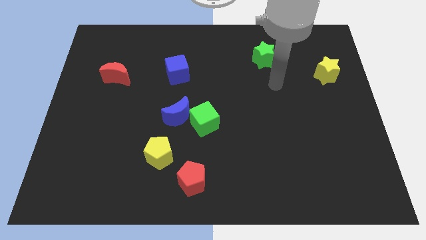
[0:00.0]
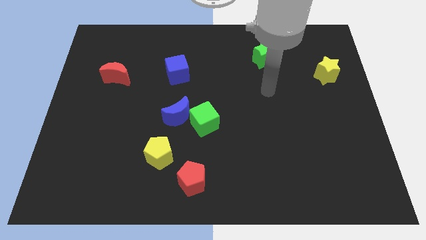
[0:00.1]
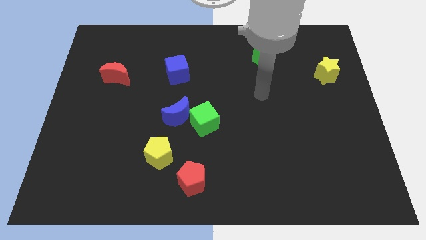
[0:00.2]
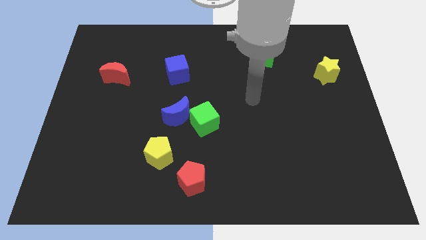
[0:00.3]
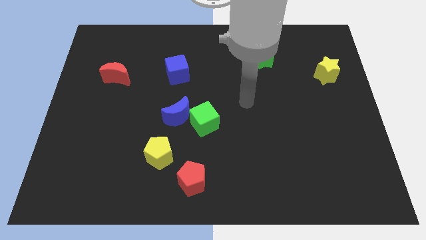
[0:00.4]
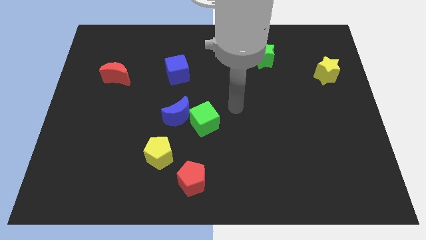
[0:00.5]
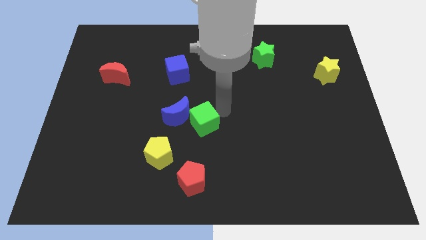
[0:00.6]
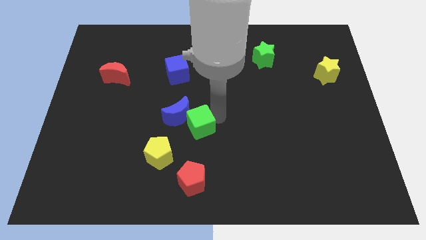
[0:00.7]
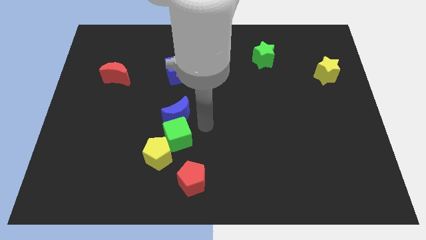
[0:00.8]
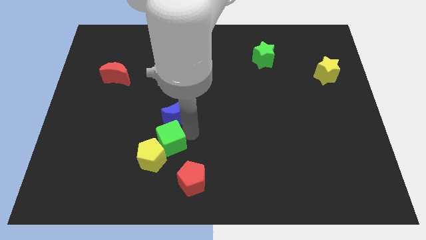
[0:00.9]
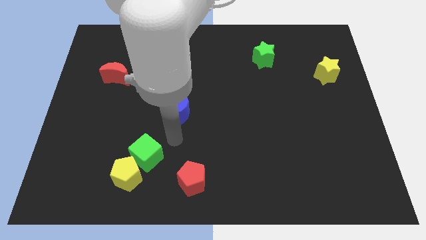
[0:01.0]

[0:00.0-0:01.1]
pull the blue moon apart from the green cube

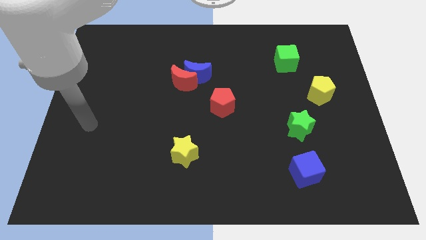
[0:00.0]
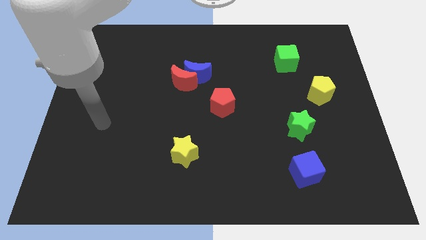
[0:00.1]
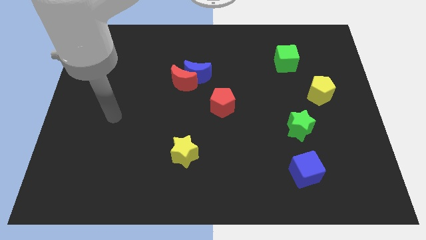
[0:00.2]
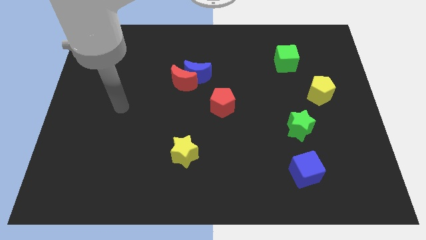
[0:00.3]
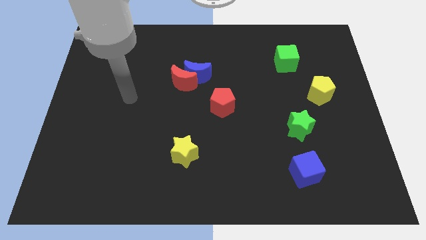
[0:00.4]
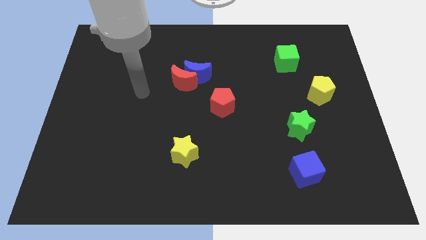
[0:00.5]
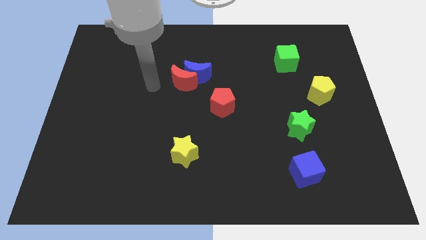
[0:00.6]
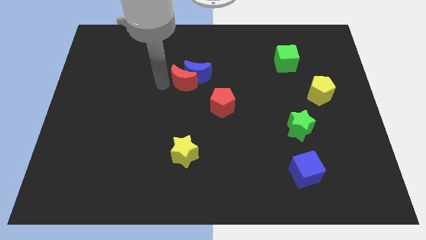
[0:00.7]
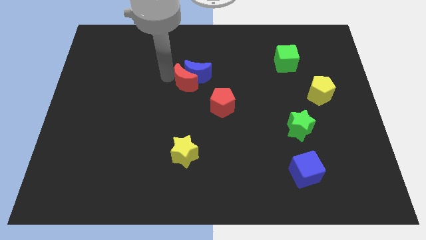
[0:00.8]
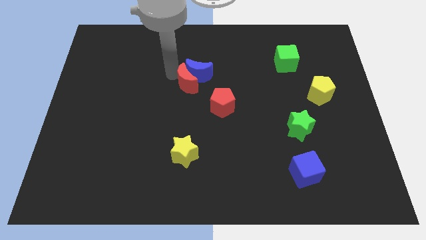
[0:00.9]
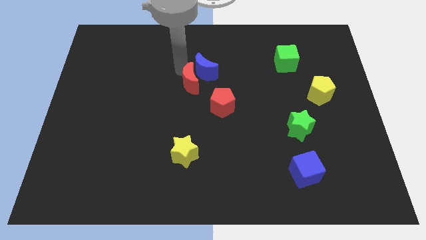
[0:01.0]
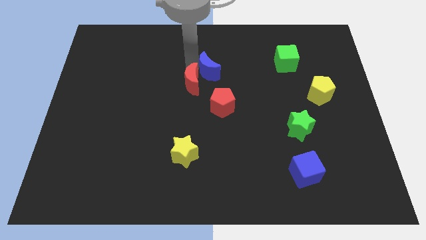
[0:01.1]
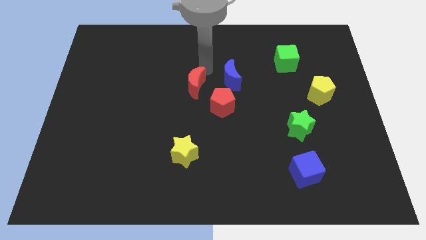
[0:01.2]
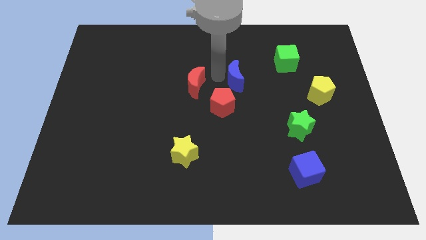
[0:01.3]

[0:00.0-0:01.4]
pull the red moon apart from the blue moon

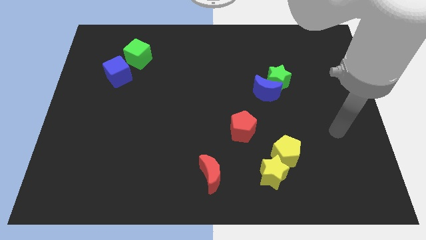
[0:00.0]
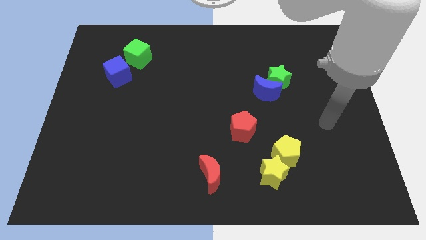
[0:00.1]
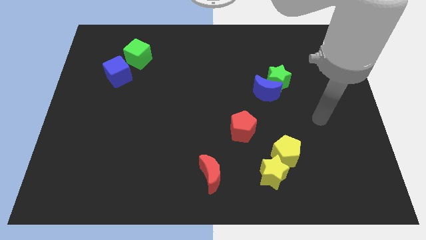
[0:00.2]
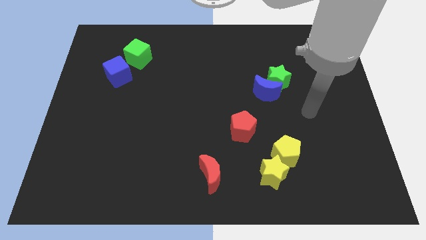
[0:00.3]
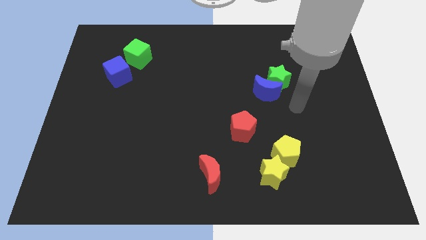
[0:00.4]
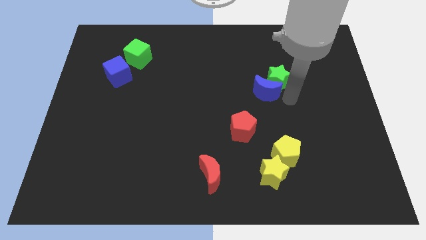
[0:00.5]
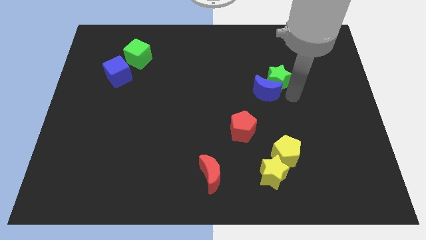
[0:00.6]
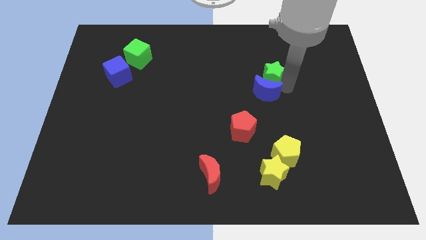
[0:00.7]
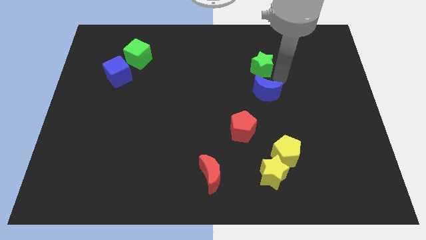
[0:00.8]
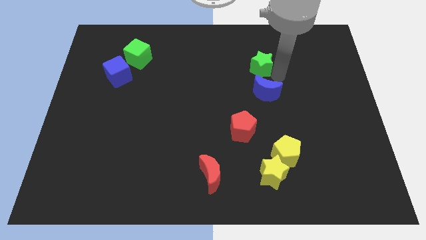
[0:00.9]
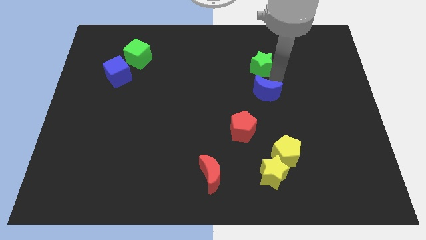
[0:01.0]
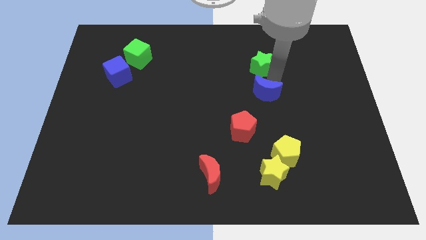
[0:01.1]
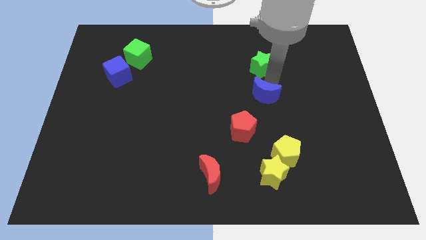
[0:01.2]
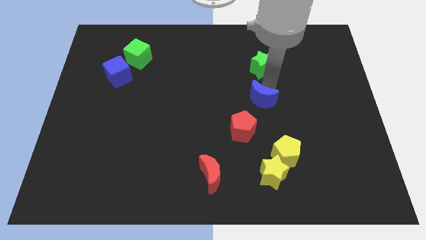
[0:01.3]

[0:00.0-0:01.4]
separate the blue moon from the green star

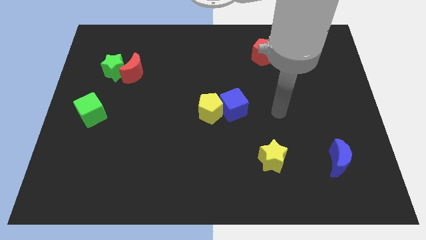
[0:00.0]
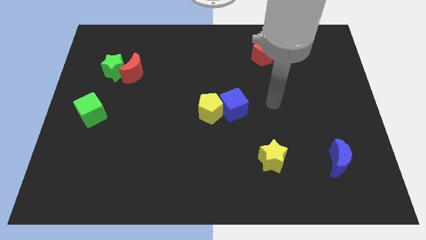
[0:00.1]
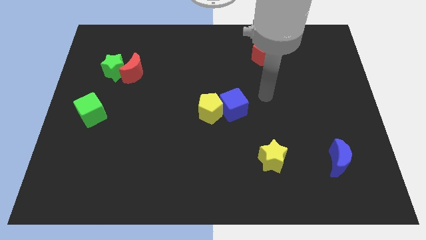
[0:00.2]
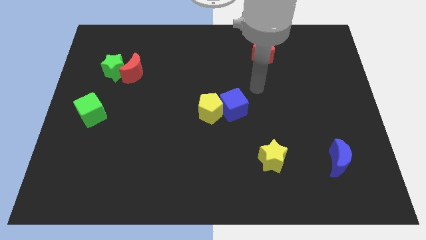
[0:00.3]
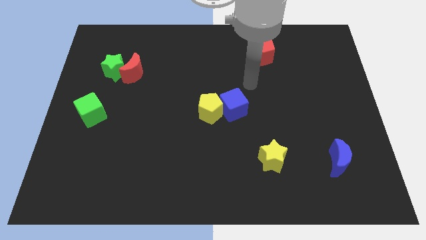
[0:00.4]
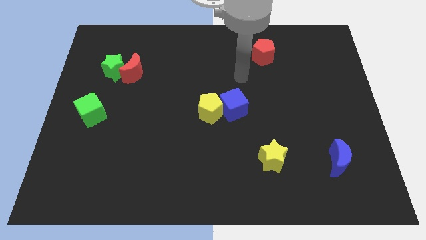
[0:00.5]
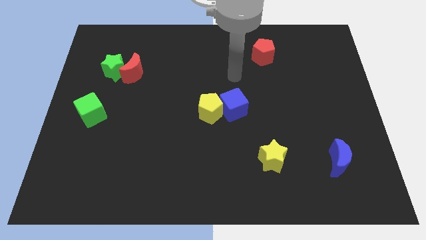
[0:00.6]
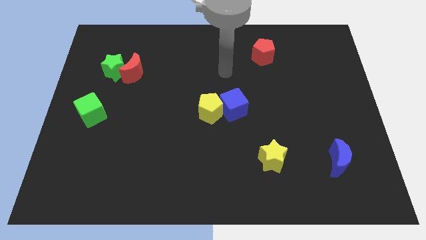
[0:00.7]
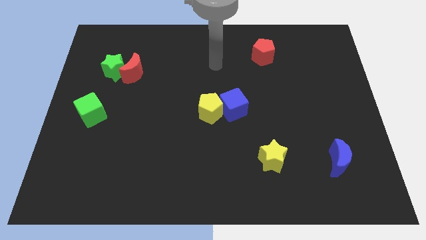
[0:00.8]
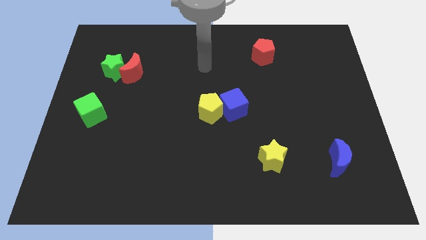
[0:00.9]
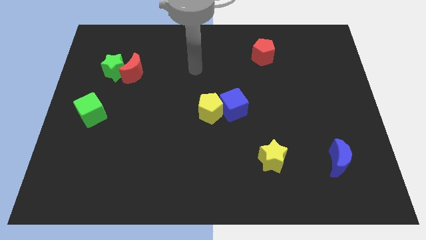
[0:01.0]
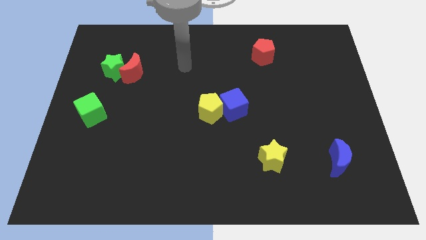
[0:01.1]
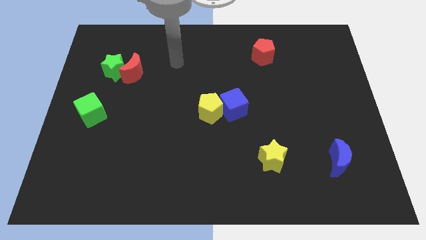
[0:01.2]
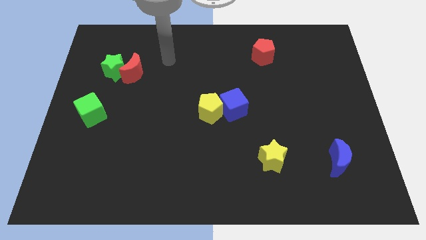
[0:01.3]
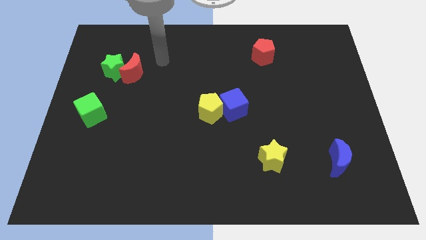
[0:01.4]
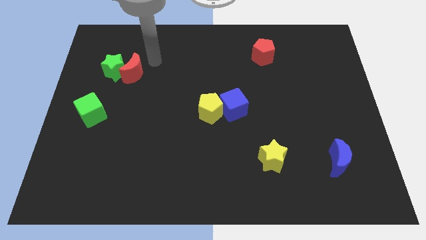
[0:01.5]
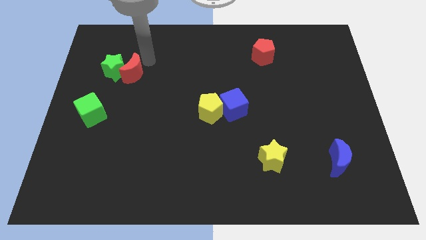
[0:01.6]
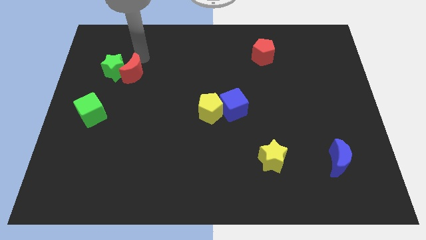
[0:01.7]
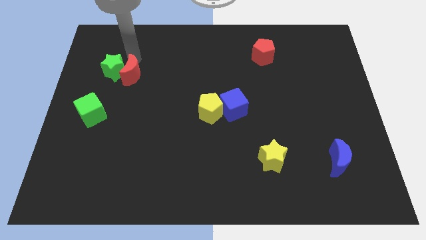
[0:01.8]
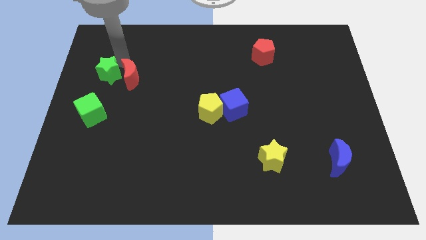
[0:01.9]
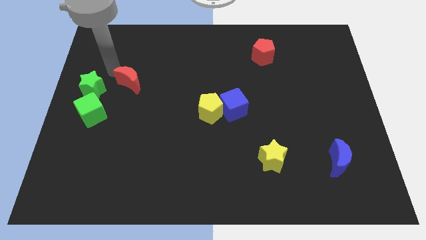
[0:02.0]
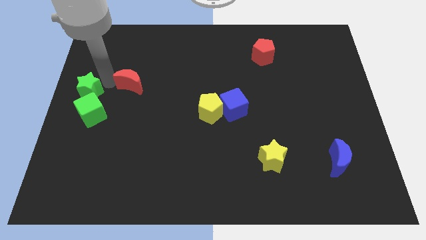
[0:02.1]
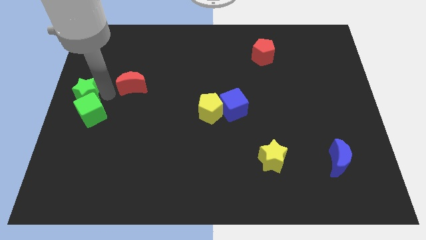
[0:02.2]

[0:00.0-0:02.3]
move the red moon away from the green star

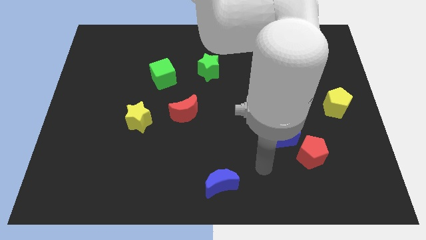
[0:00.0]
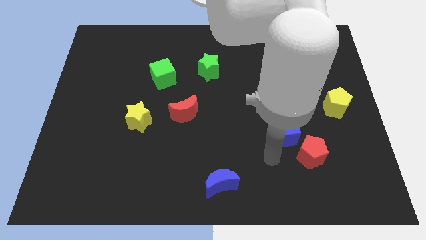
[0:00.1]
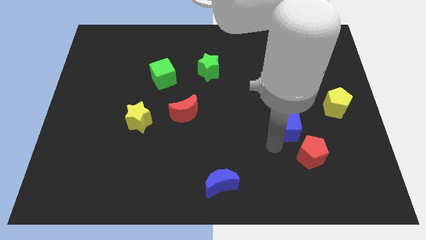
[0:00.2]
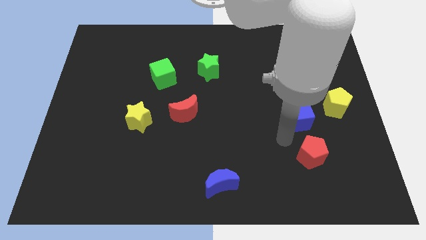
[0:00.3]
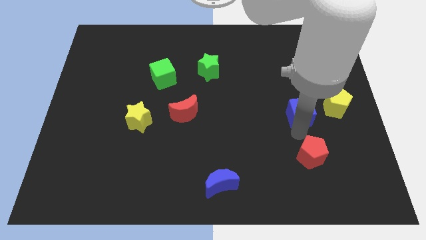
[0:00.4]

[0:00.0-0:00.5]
move the red pentagon away from the blue cube

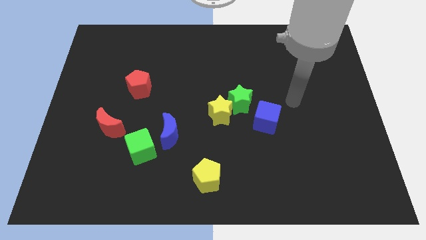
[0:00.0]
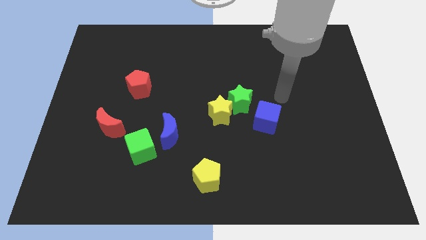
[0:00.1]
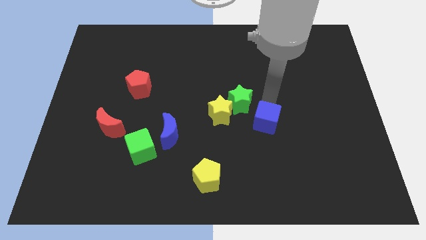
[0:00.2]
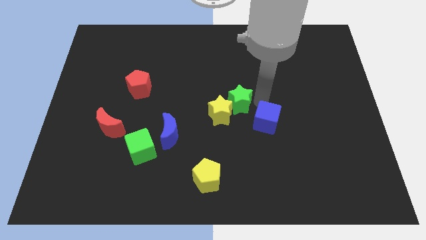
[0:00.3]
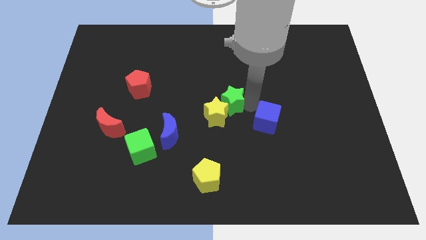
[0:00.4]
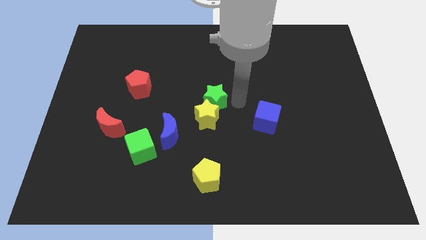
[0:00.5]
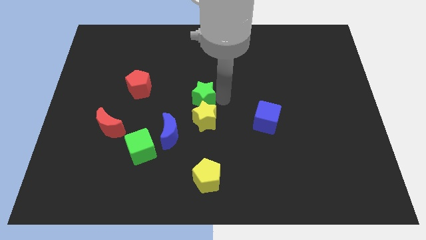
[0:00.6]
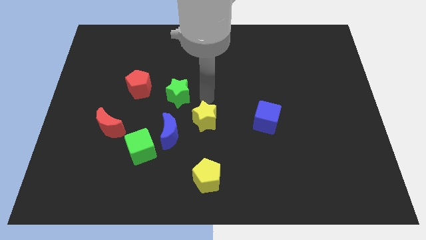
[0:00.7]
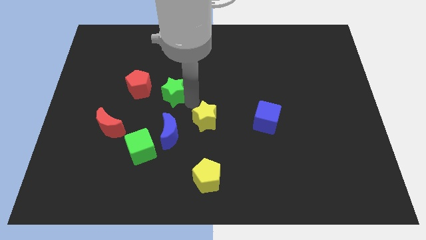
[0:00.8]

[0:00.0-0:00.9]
move the yellow star away from the green star

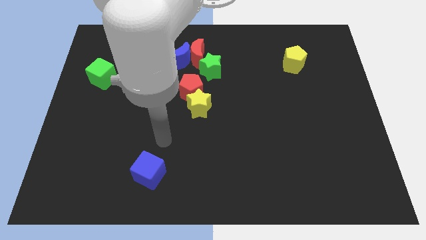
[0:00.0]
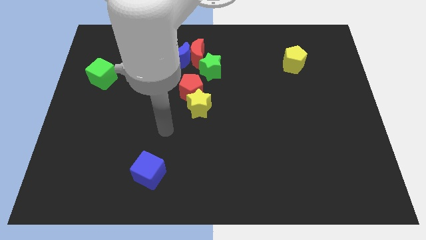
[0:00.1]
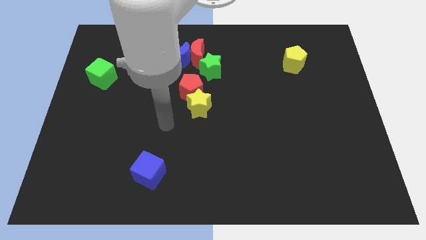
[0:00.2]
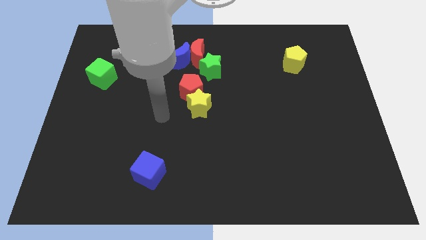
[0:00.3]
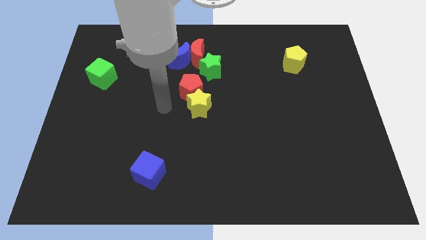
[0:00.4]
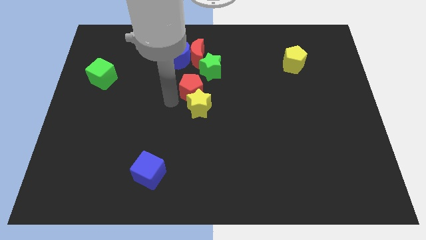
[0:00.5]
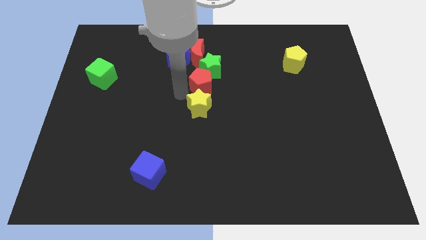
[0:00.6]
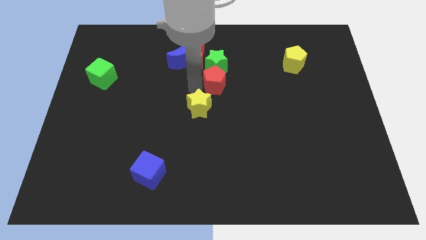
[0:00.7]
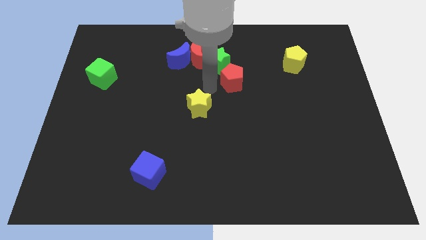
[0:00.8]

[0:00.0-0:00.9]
move the yellow star away from the red pentagon

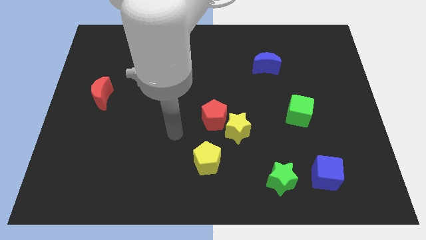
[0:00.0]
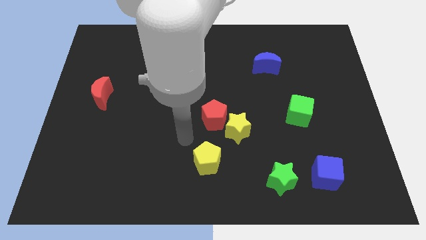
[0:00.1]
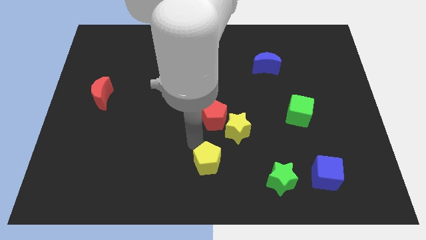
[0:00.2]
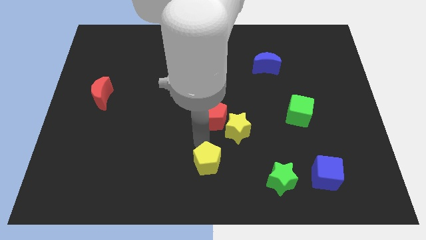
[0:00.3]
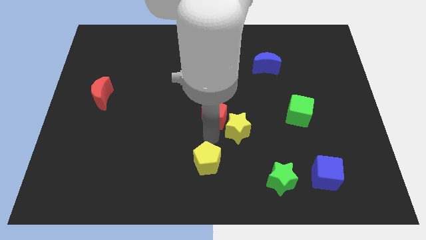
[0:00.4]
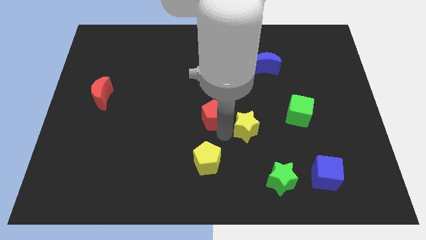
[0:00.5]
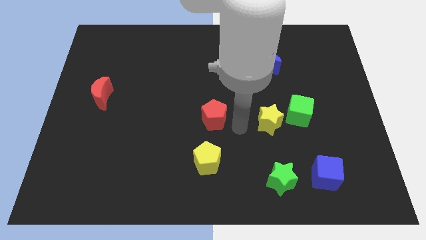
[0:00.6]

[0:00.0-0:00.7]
separate the red pentagon from the yellow star
